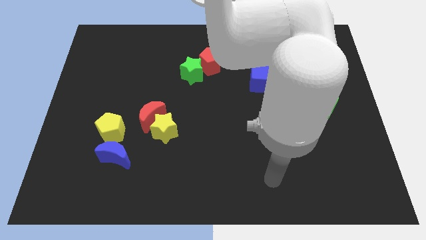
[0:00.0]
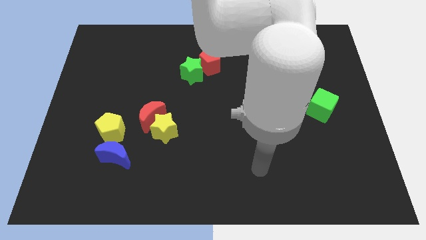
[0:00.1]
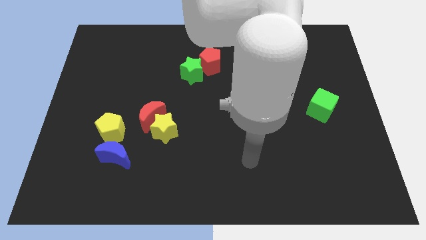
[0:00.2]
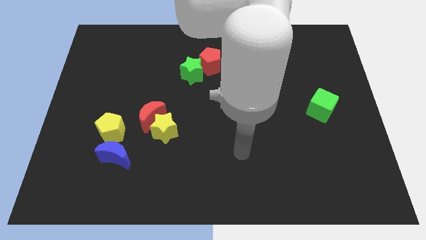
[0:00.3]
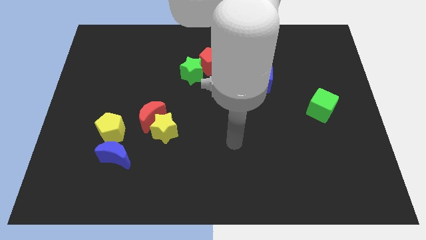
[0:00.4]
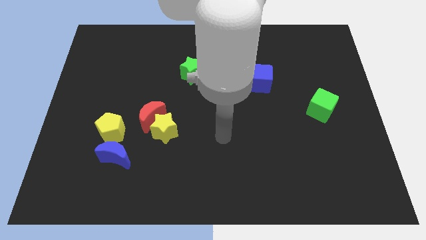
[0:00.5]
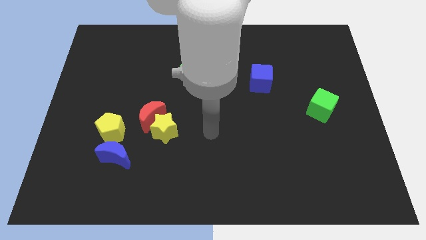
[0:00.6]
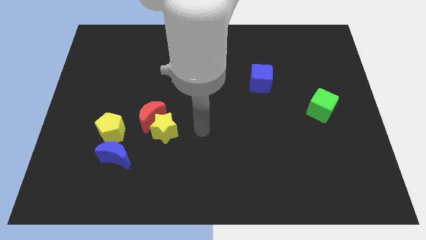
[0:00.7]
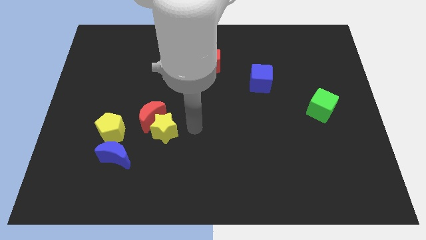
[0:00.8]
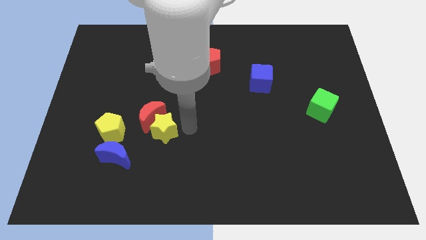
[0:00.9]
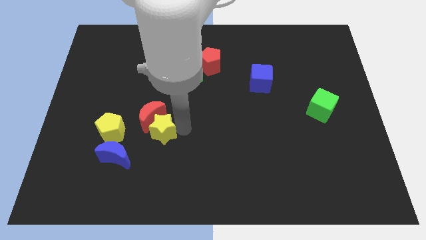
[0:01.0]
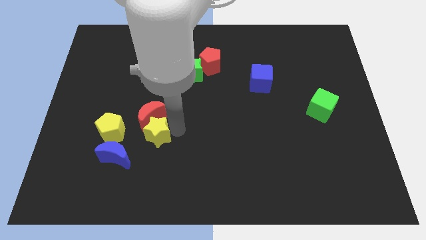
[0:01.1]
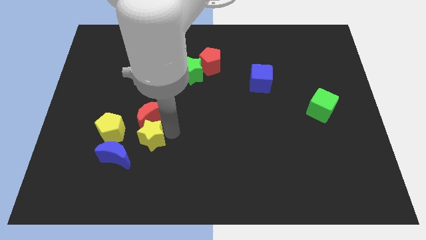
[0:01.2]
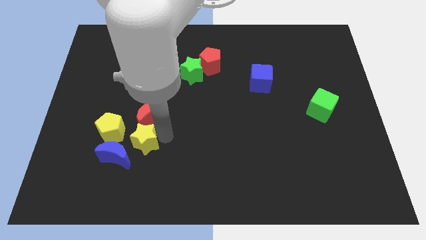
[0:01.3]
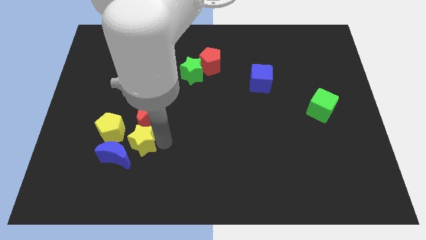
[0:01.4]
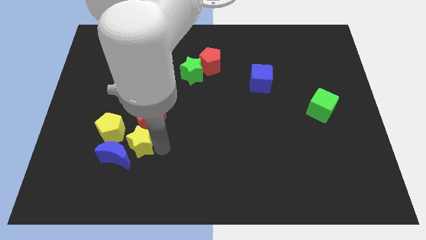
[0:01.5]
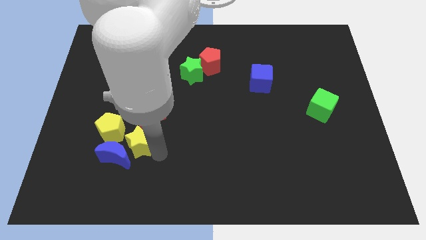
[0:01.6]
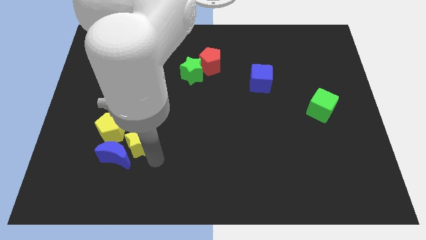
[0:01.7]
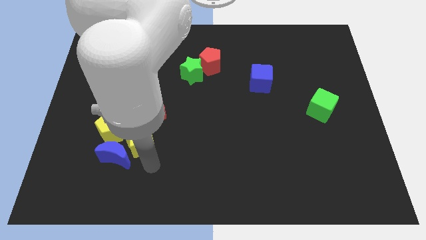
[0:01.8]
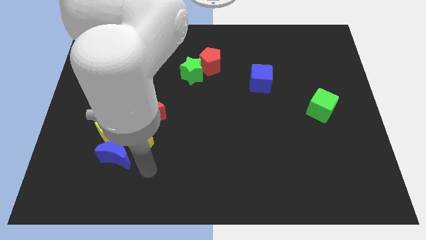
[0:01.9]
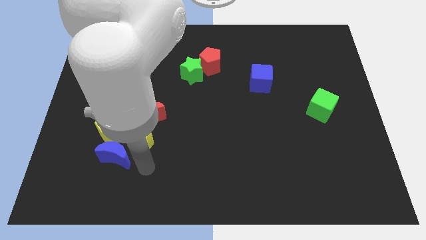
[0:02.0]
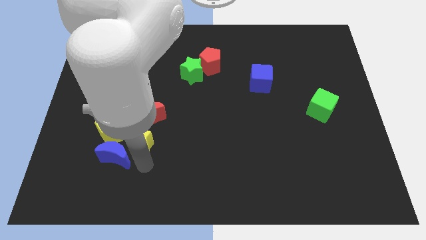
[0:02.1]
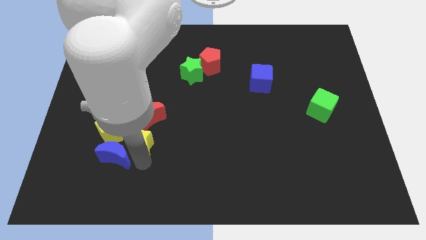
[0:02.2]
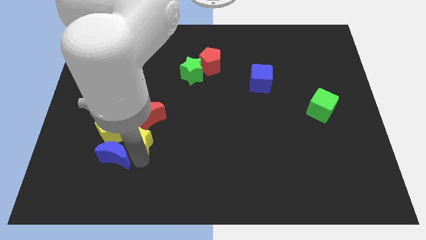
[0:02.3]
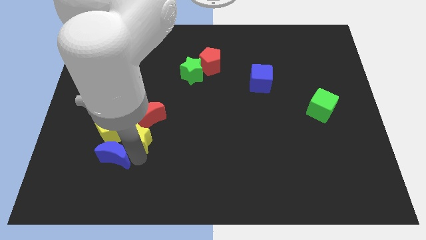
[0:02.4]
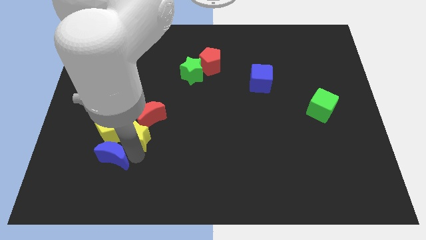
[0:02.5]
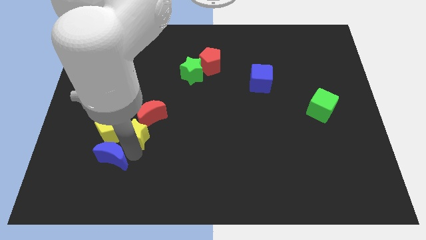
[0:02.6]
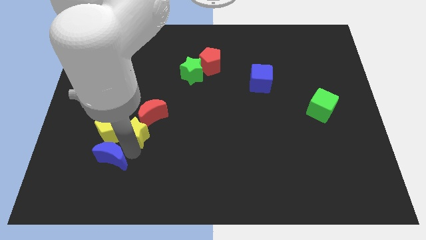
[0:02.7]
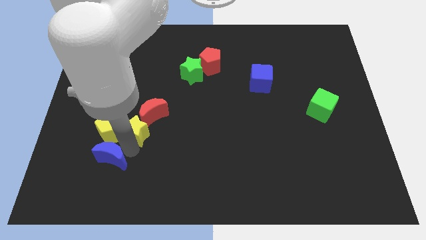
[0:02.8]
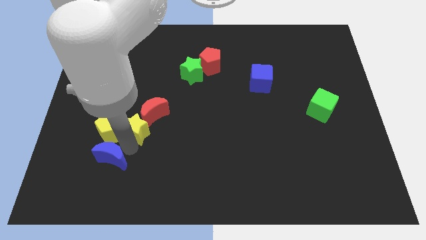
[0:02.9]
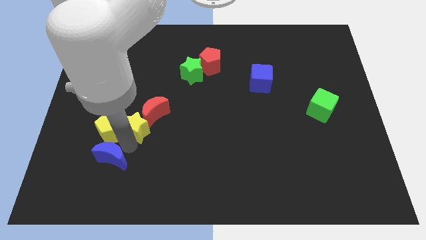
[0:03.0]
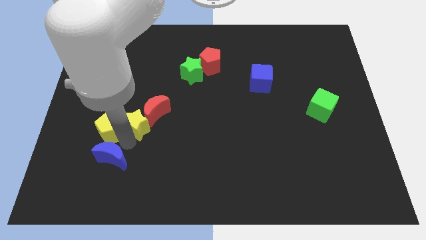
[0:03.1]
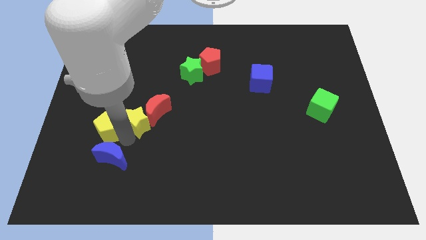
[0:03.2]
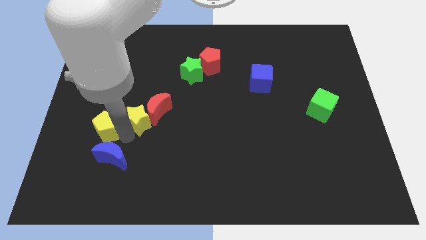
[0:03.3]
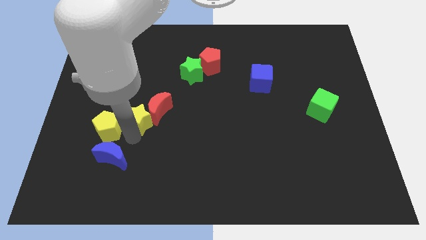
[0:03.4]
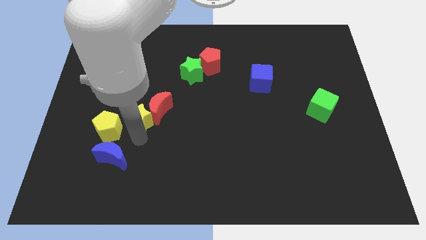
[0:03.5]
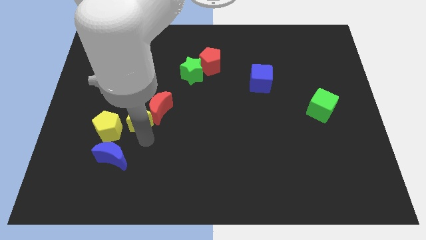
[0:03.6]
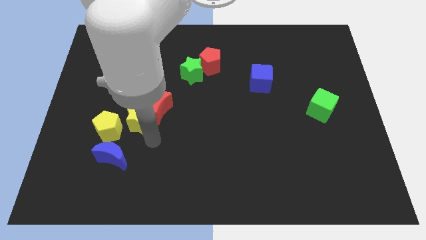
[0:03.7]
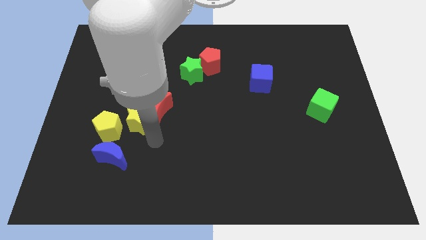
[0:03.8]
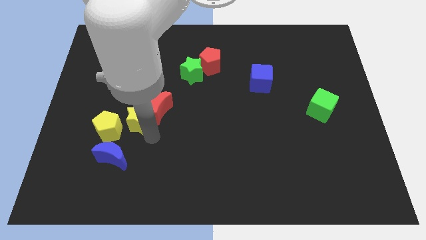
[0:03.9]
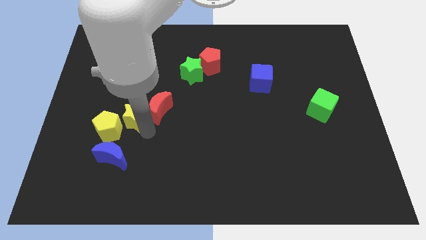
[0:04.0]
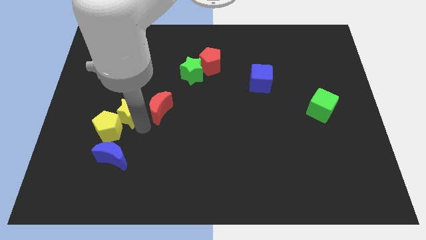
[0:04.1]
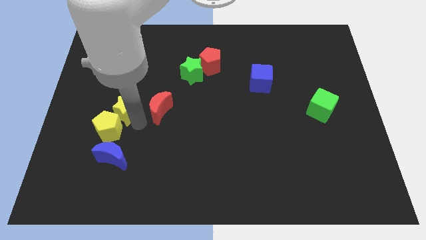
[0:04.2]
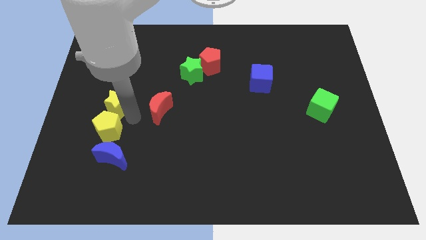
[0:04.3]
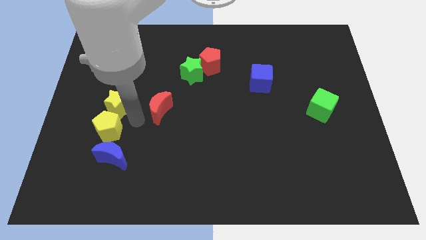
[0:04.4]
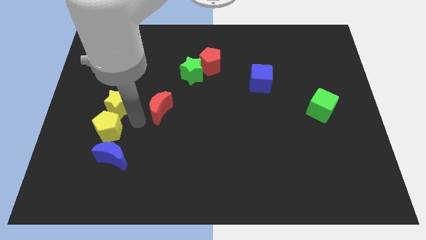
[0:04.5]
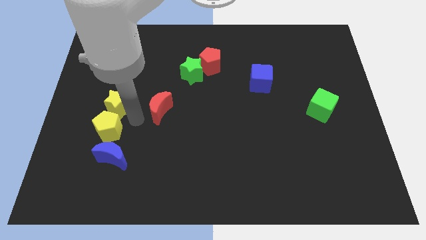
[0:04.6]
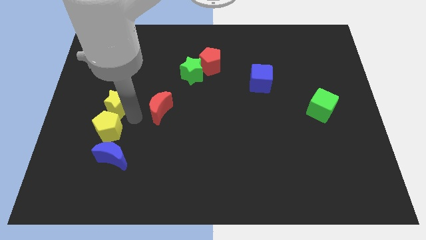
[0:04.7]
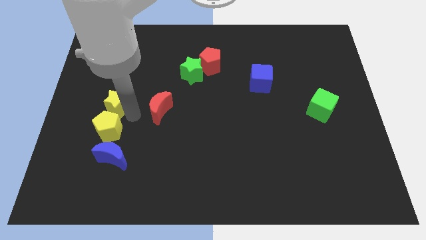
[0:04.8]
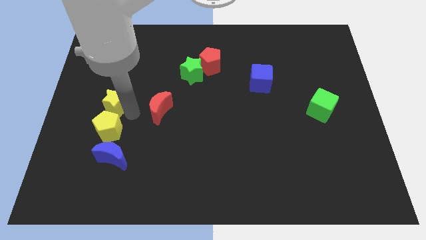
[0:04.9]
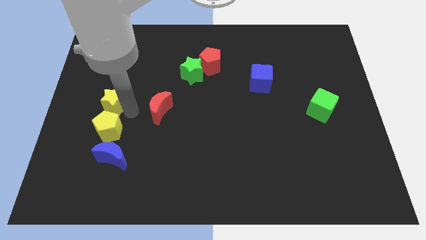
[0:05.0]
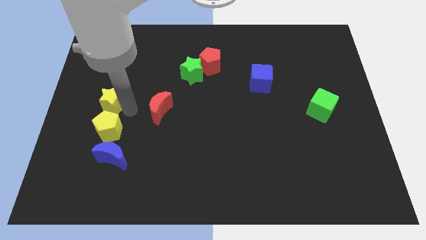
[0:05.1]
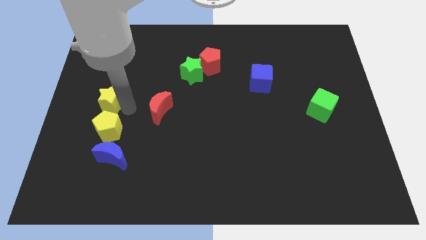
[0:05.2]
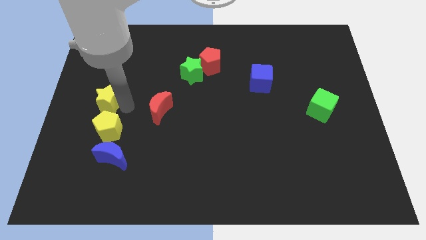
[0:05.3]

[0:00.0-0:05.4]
put the yellow star to the center left
